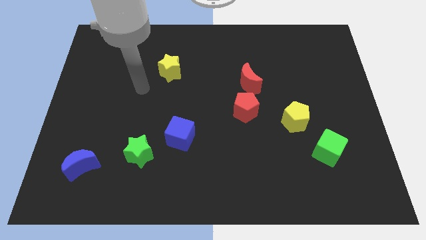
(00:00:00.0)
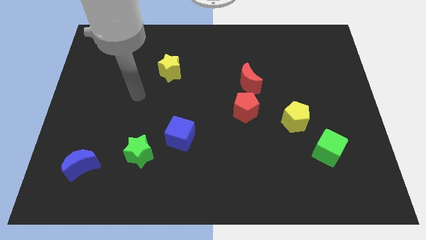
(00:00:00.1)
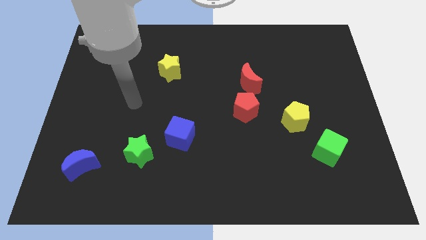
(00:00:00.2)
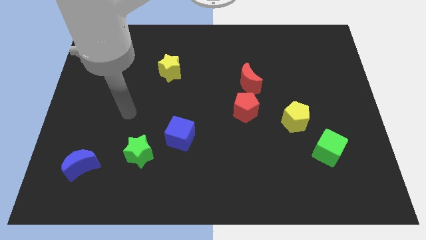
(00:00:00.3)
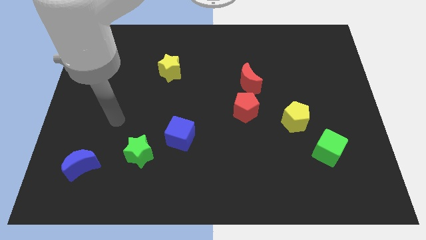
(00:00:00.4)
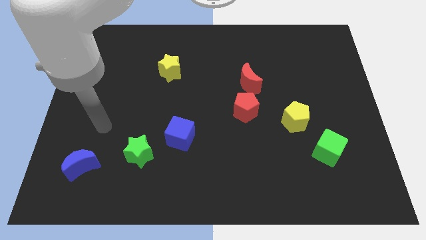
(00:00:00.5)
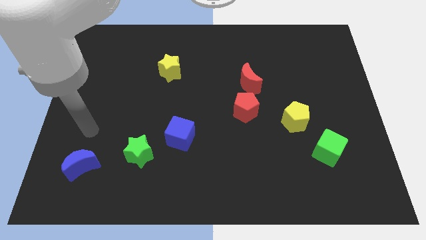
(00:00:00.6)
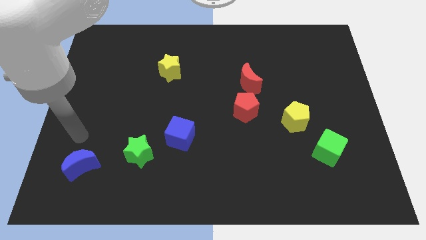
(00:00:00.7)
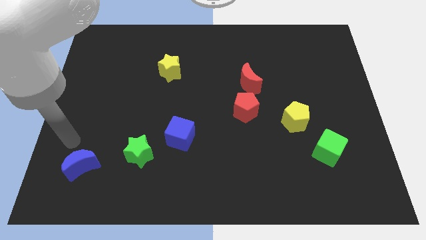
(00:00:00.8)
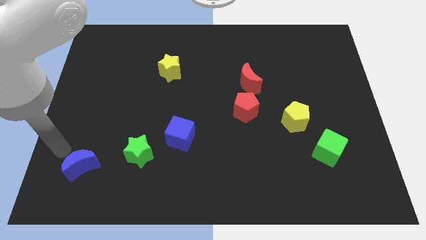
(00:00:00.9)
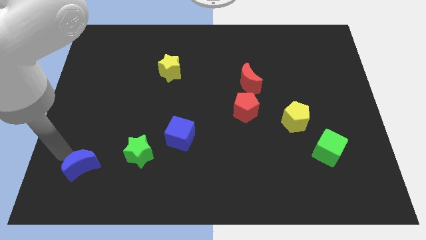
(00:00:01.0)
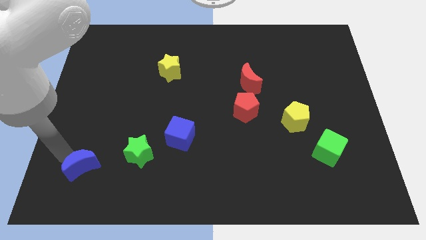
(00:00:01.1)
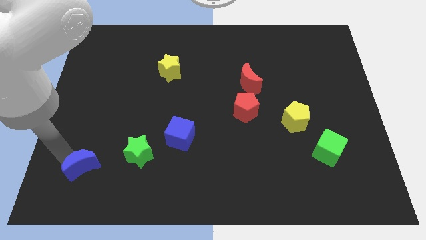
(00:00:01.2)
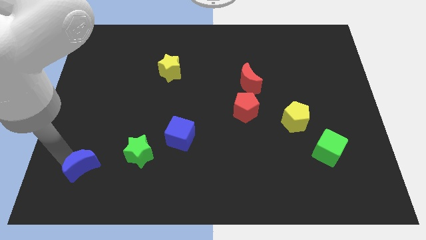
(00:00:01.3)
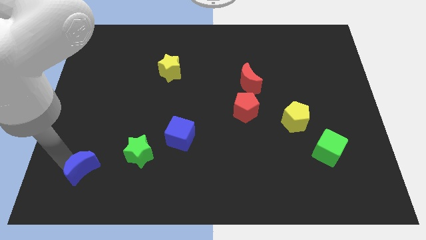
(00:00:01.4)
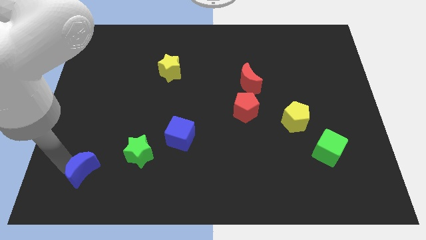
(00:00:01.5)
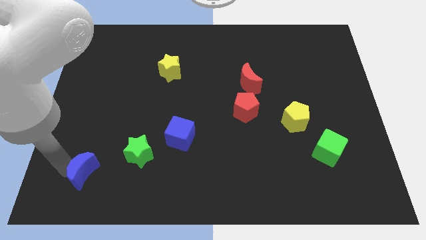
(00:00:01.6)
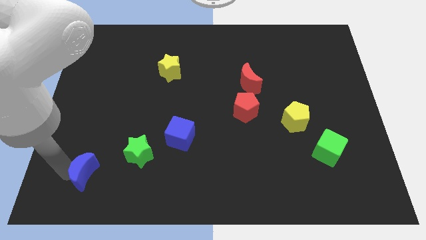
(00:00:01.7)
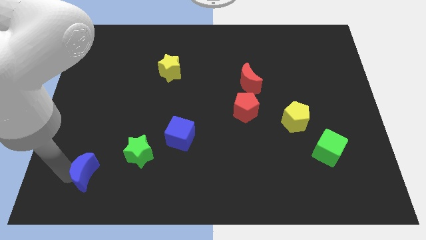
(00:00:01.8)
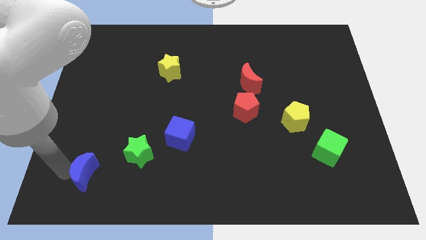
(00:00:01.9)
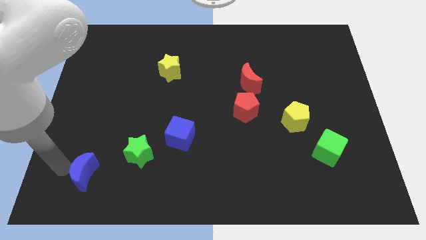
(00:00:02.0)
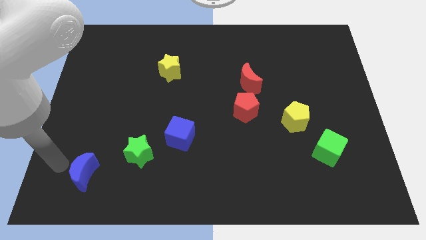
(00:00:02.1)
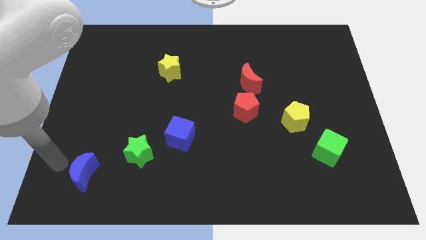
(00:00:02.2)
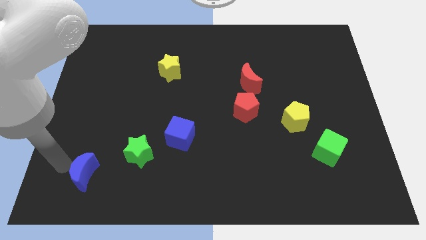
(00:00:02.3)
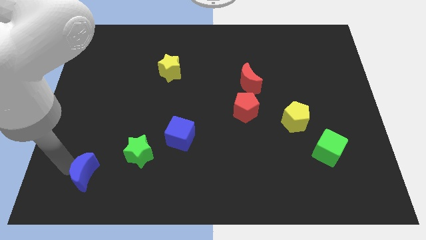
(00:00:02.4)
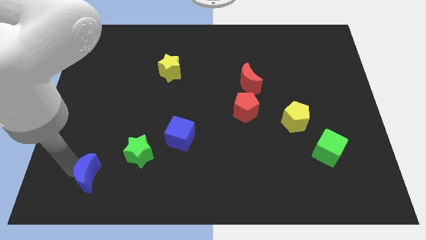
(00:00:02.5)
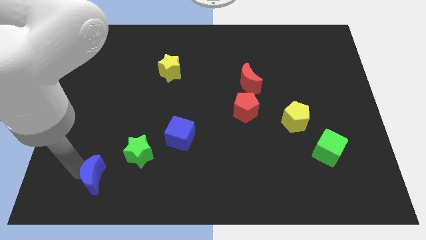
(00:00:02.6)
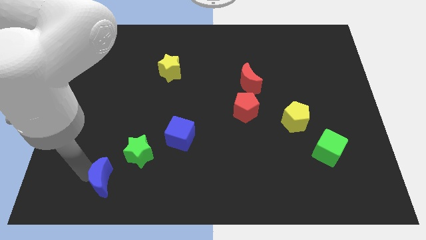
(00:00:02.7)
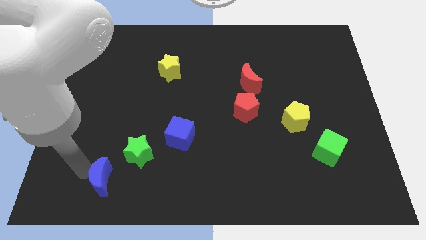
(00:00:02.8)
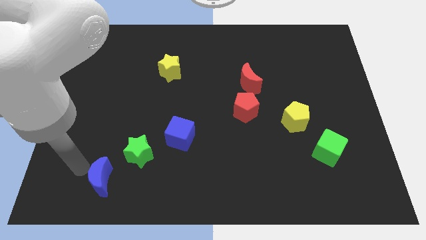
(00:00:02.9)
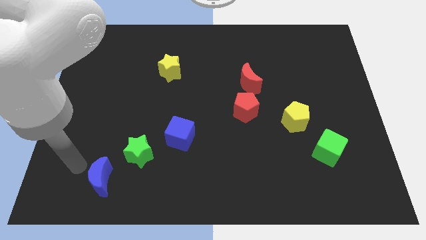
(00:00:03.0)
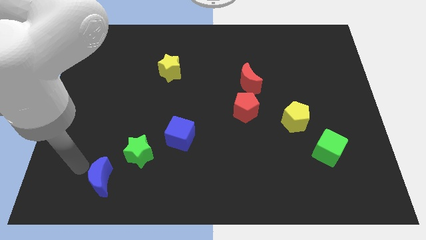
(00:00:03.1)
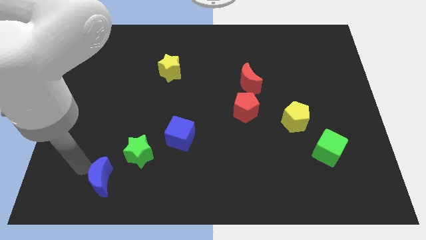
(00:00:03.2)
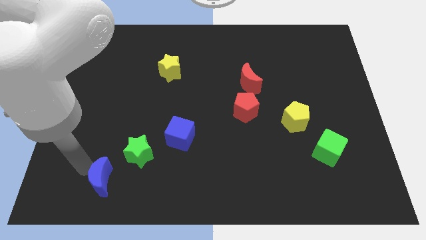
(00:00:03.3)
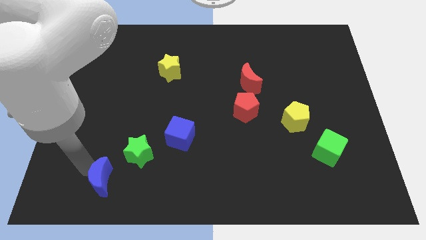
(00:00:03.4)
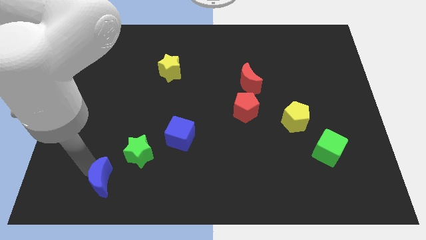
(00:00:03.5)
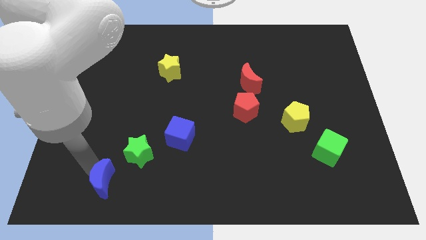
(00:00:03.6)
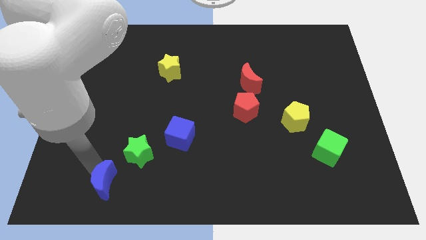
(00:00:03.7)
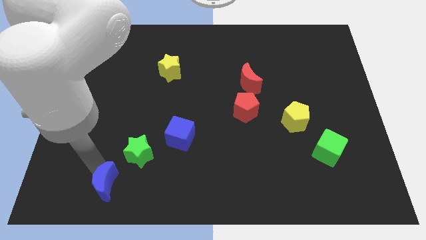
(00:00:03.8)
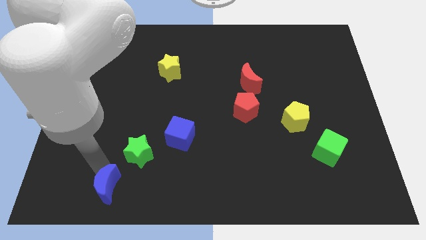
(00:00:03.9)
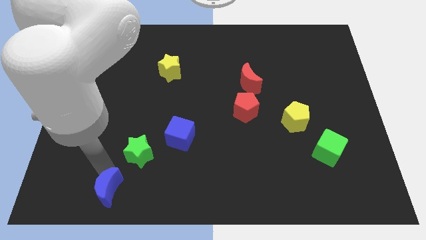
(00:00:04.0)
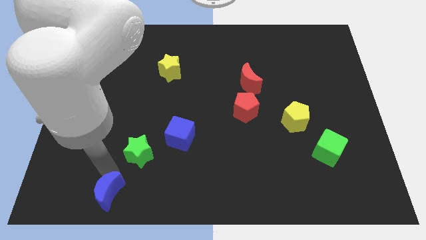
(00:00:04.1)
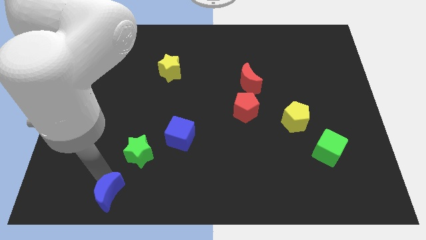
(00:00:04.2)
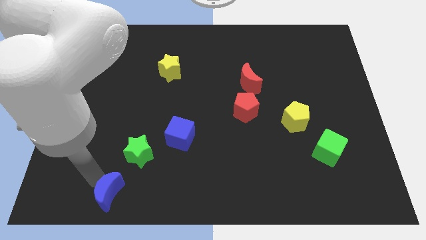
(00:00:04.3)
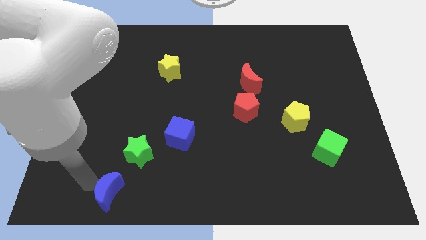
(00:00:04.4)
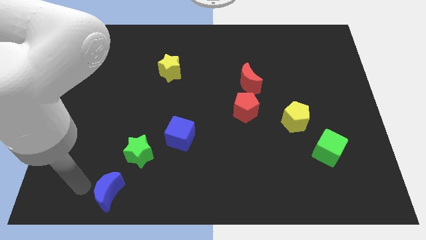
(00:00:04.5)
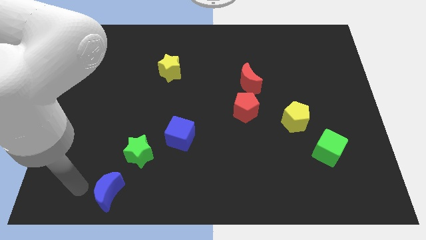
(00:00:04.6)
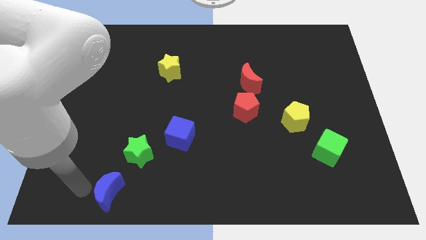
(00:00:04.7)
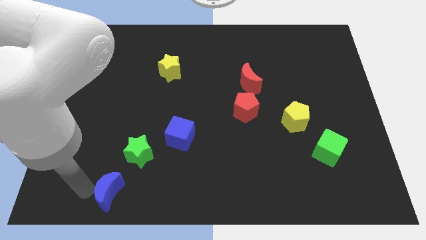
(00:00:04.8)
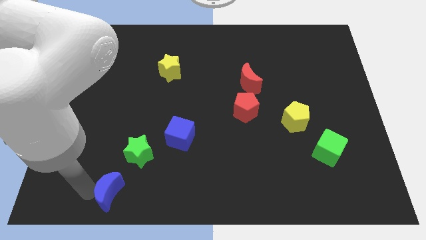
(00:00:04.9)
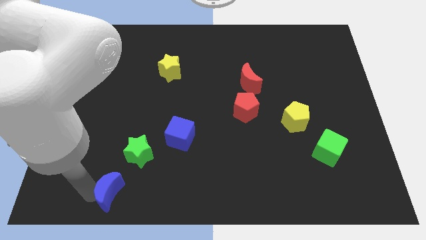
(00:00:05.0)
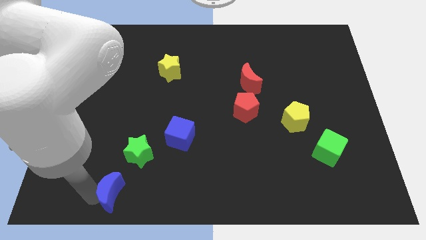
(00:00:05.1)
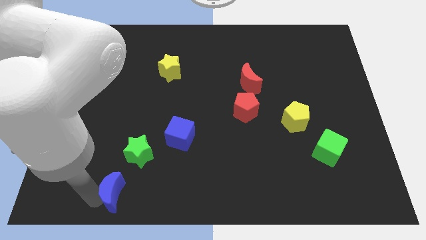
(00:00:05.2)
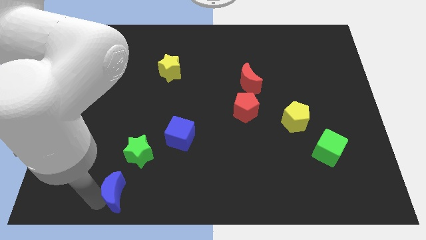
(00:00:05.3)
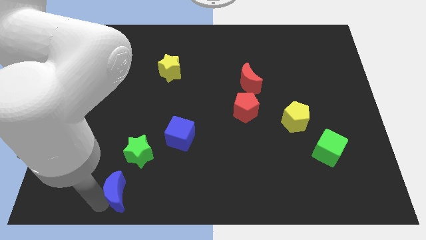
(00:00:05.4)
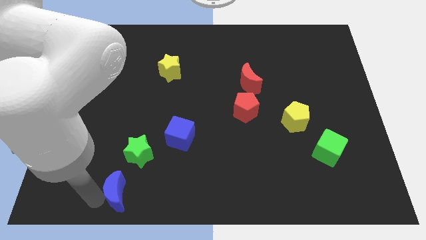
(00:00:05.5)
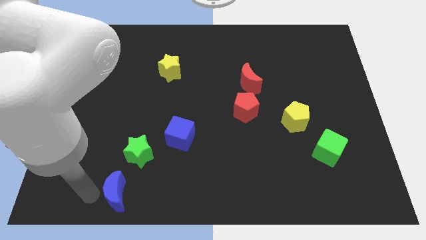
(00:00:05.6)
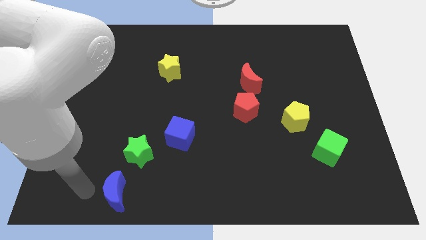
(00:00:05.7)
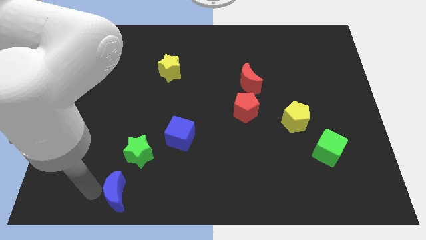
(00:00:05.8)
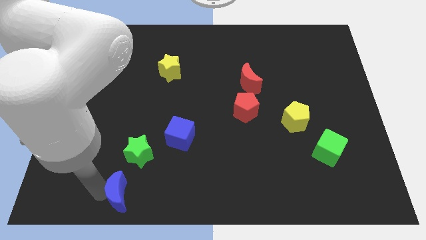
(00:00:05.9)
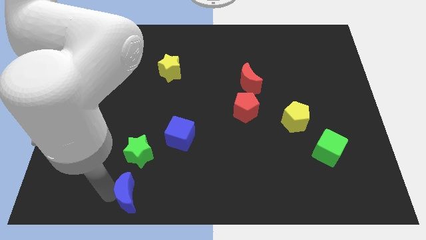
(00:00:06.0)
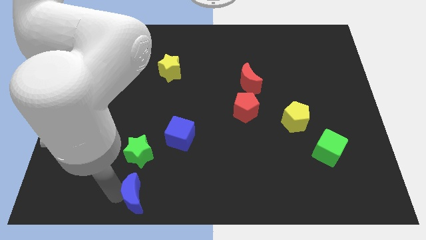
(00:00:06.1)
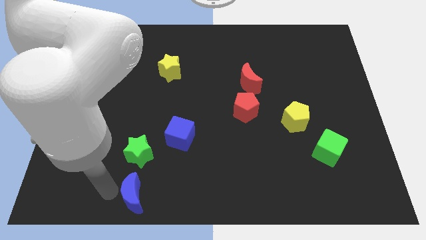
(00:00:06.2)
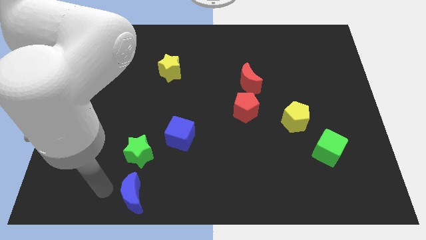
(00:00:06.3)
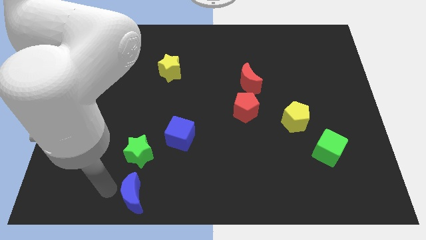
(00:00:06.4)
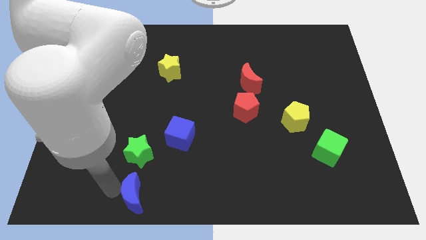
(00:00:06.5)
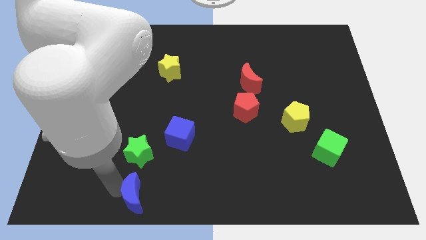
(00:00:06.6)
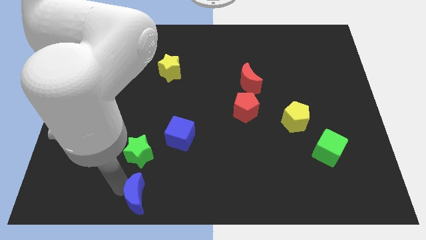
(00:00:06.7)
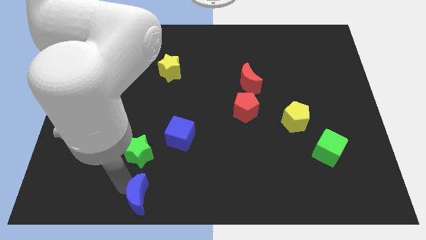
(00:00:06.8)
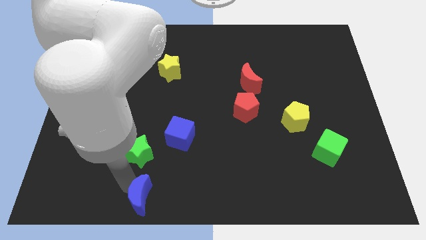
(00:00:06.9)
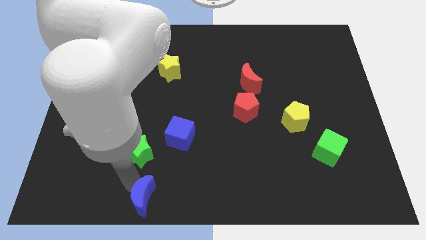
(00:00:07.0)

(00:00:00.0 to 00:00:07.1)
move the blue moon to the bottom
